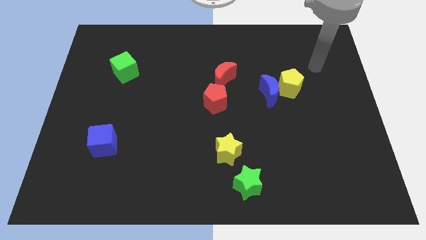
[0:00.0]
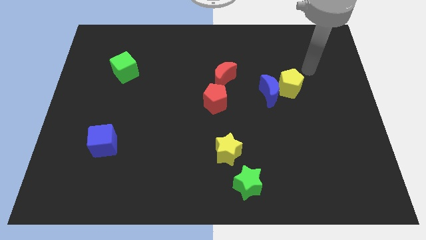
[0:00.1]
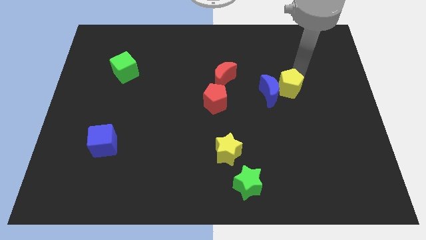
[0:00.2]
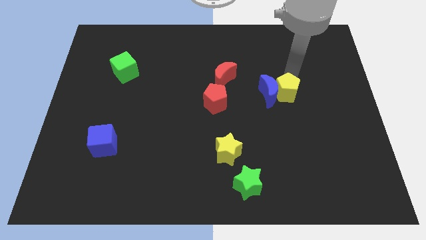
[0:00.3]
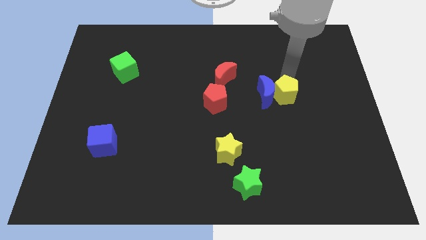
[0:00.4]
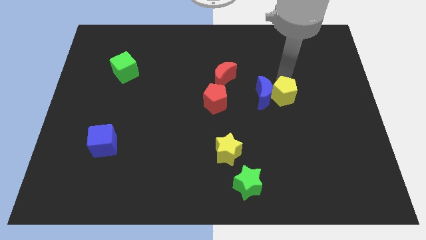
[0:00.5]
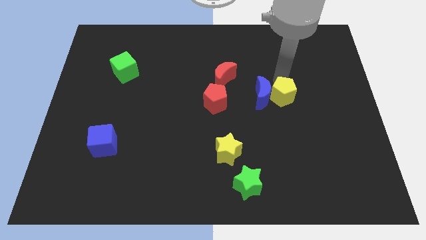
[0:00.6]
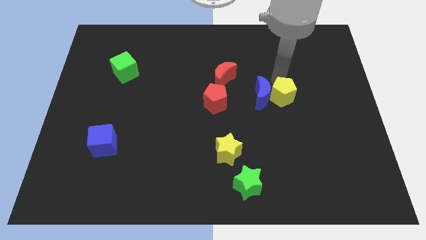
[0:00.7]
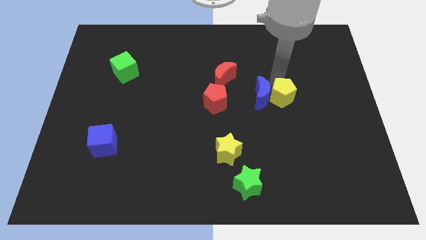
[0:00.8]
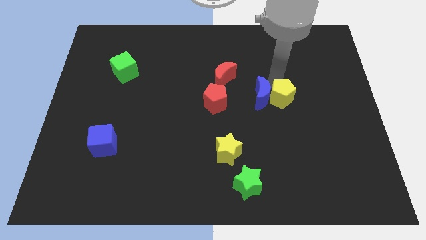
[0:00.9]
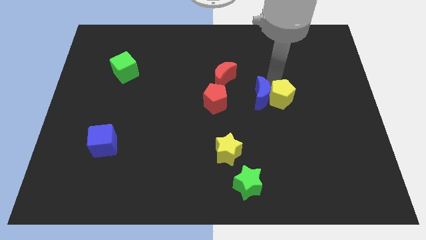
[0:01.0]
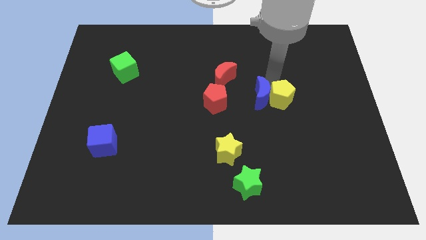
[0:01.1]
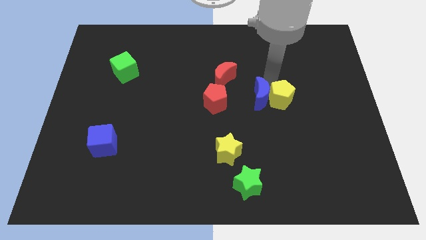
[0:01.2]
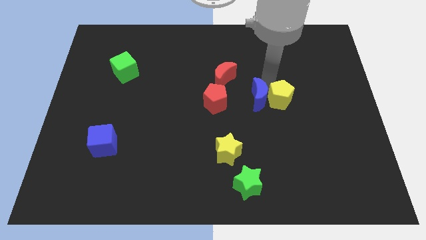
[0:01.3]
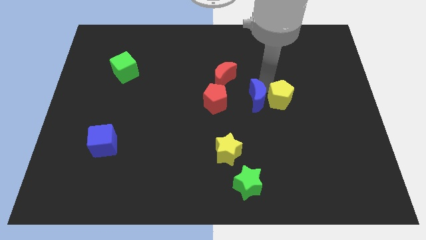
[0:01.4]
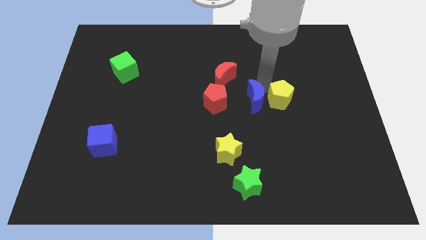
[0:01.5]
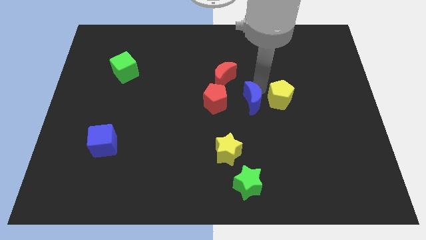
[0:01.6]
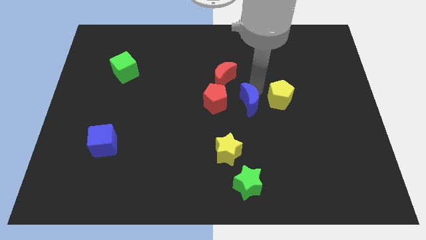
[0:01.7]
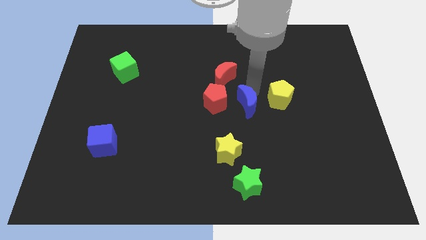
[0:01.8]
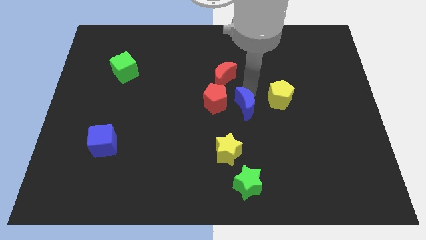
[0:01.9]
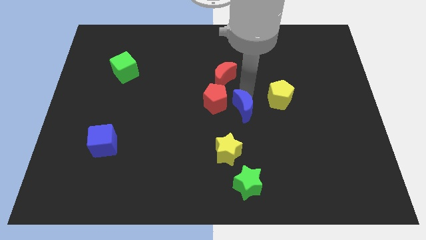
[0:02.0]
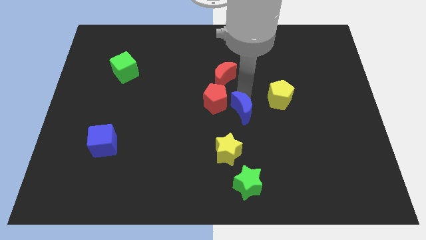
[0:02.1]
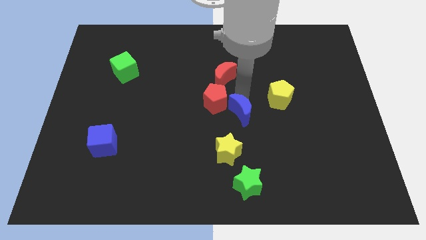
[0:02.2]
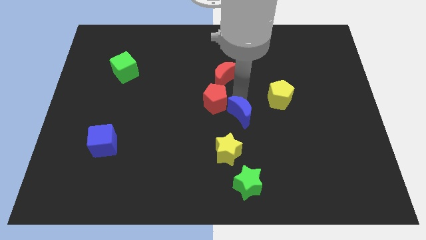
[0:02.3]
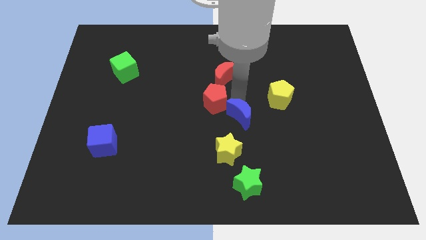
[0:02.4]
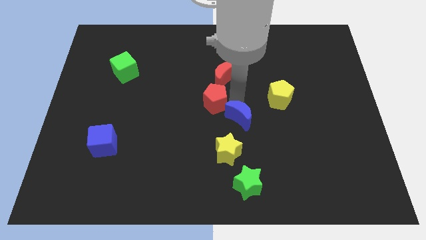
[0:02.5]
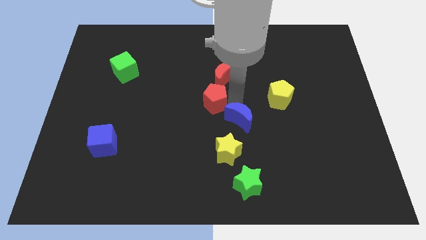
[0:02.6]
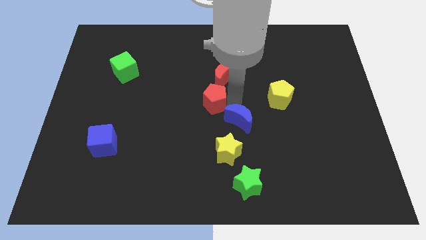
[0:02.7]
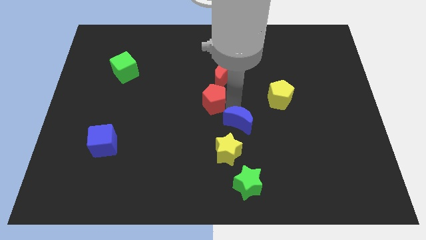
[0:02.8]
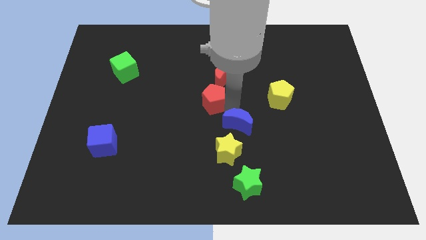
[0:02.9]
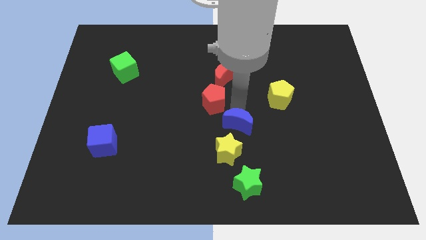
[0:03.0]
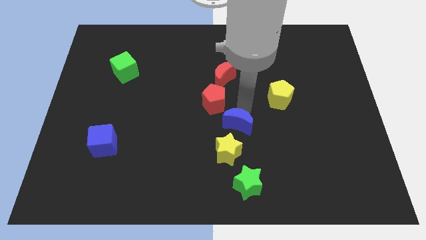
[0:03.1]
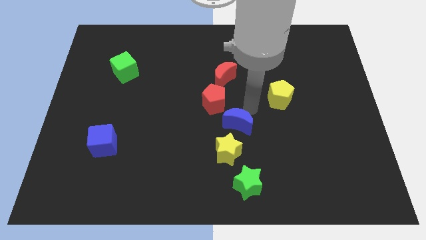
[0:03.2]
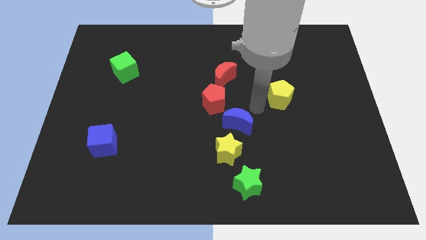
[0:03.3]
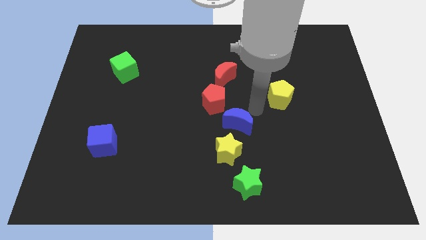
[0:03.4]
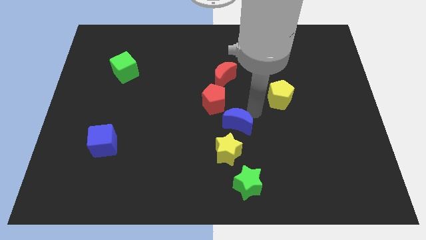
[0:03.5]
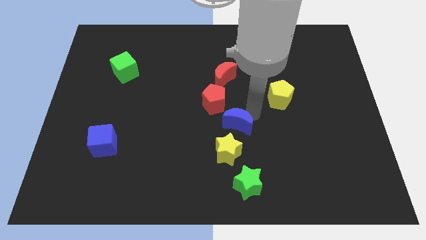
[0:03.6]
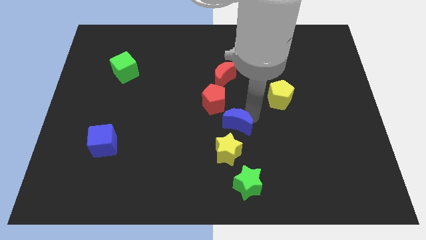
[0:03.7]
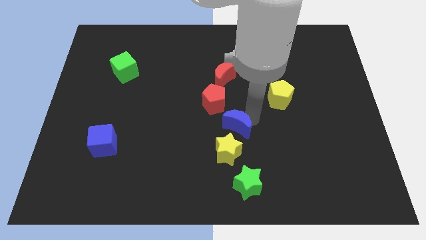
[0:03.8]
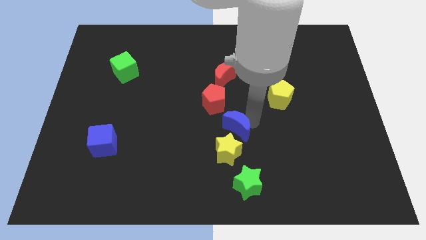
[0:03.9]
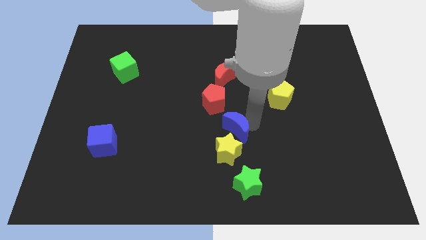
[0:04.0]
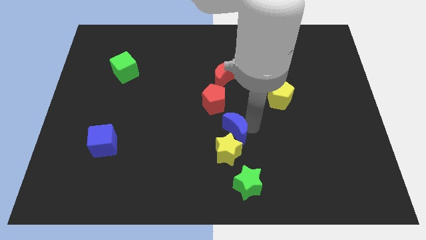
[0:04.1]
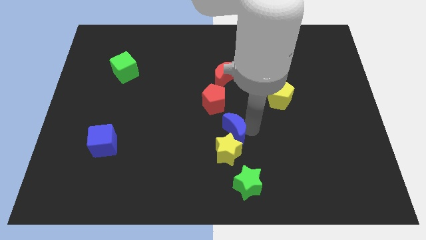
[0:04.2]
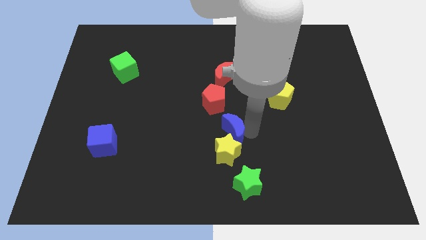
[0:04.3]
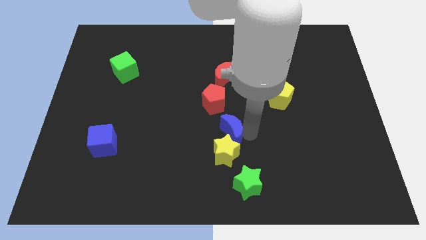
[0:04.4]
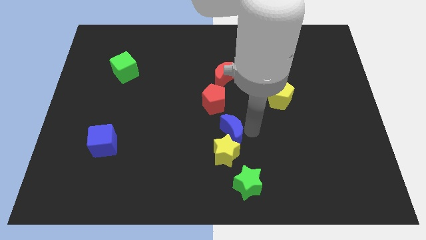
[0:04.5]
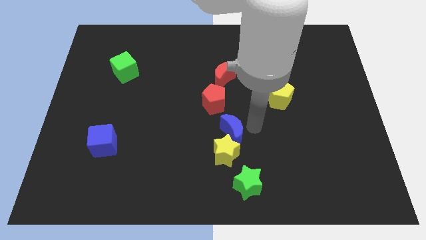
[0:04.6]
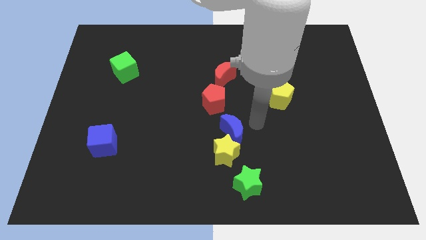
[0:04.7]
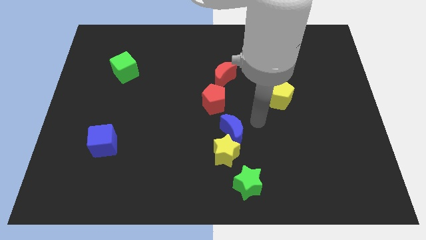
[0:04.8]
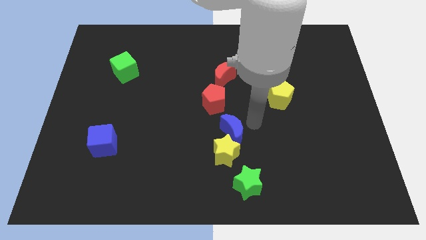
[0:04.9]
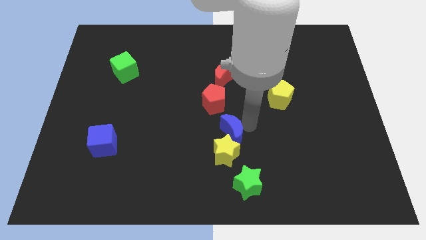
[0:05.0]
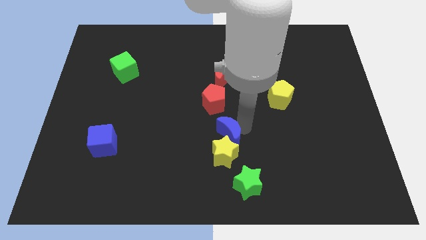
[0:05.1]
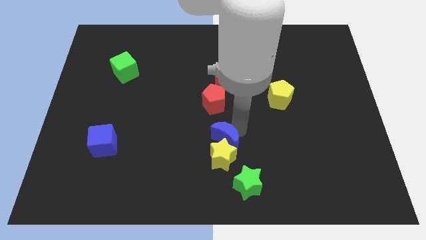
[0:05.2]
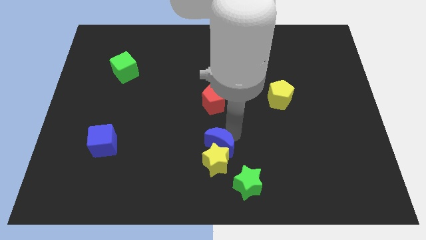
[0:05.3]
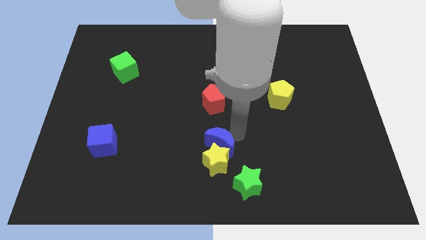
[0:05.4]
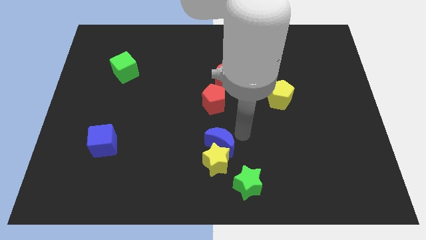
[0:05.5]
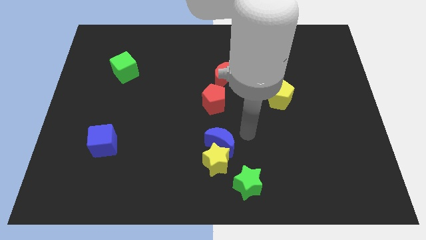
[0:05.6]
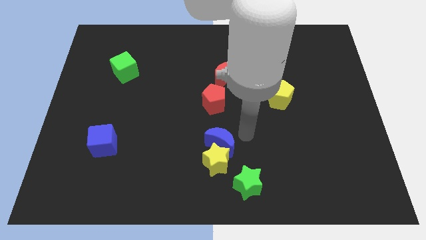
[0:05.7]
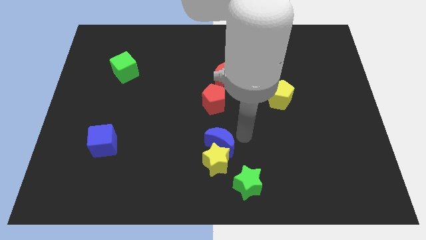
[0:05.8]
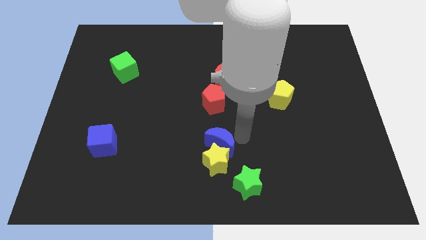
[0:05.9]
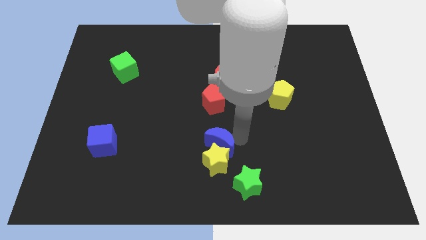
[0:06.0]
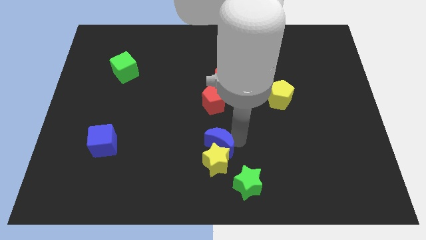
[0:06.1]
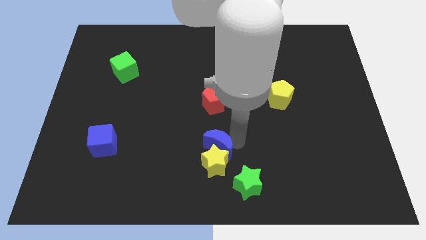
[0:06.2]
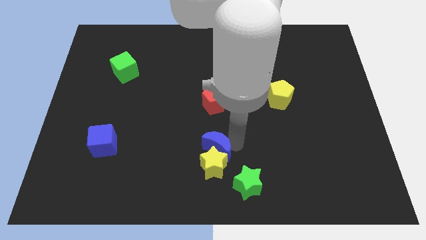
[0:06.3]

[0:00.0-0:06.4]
slide the blue moon downwards and left diagonally

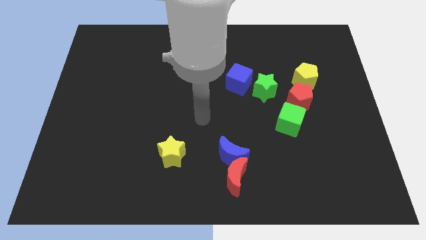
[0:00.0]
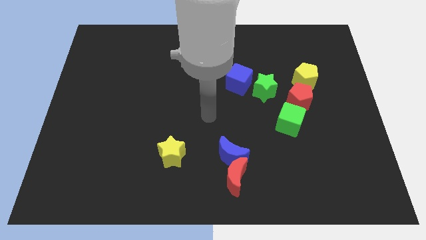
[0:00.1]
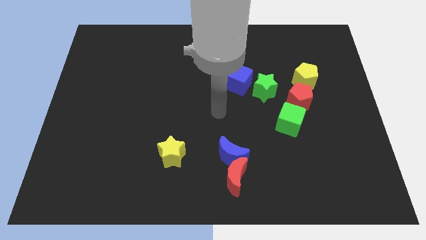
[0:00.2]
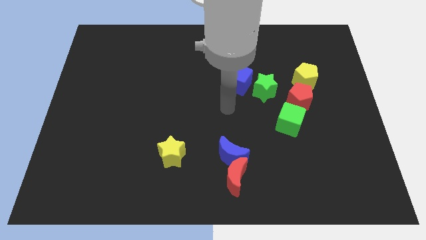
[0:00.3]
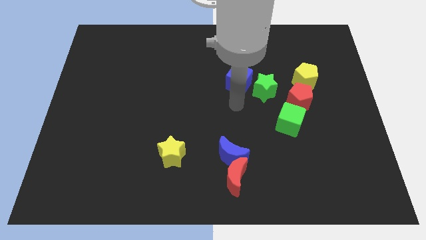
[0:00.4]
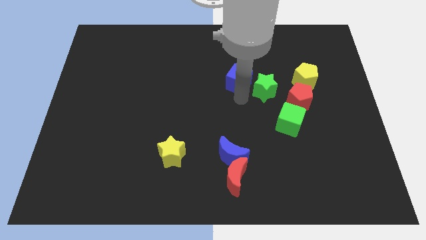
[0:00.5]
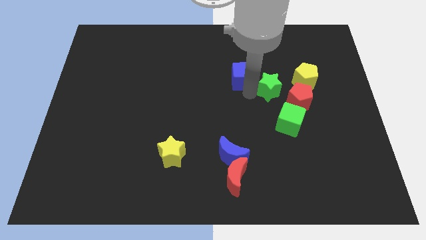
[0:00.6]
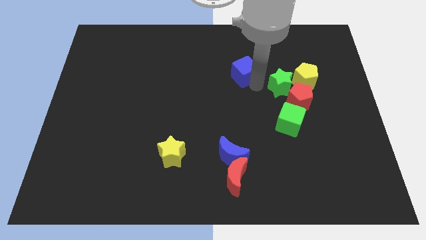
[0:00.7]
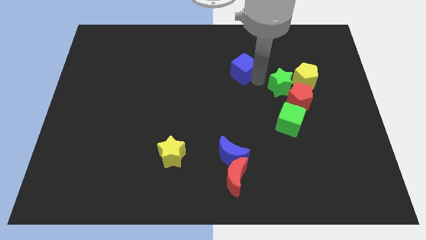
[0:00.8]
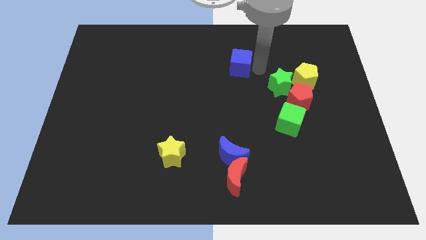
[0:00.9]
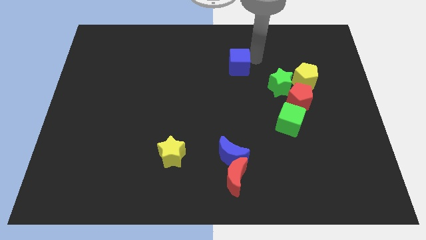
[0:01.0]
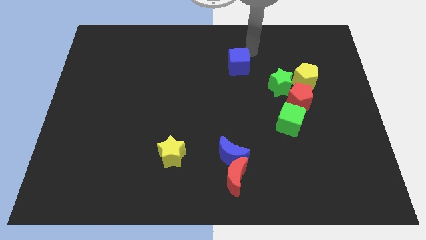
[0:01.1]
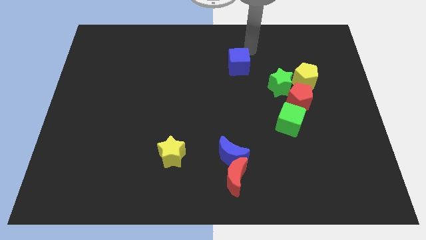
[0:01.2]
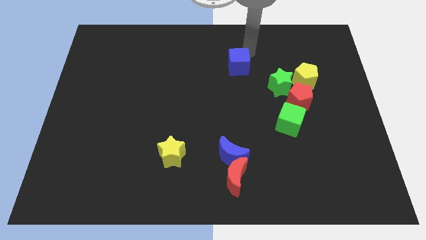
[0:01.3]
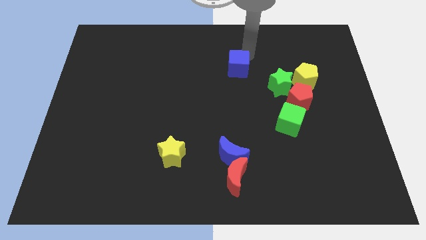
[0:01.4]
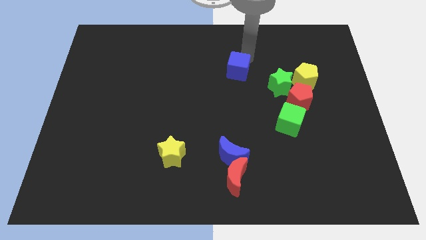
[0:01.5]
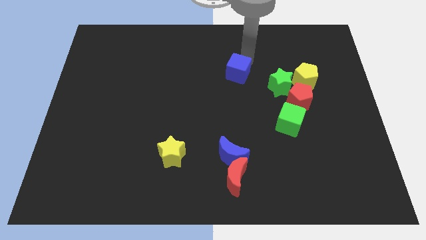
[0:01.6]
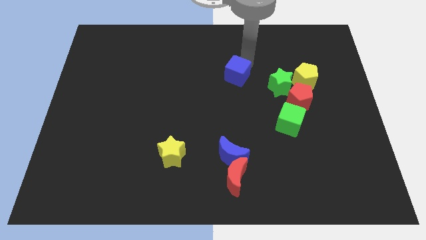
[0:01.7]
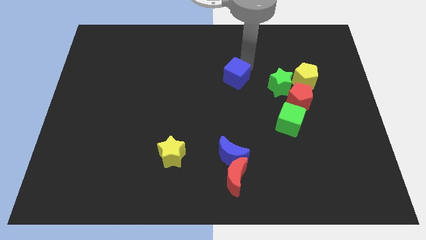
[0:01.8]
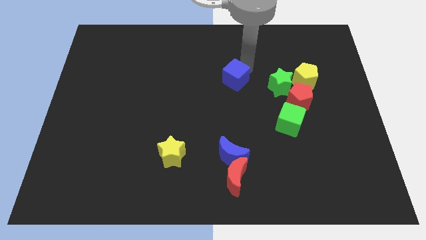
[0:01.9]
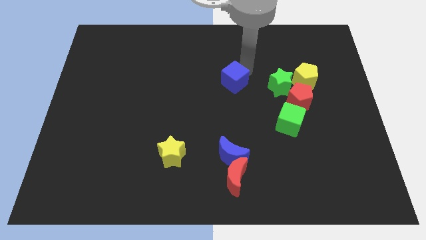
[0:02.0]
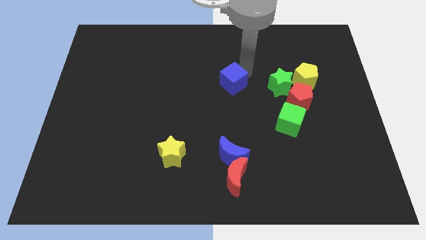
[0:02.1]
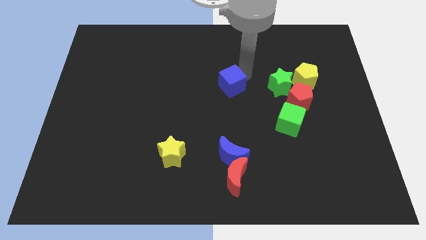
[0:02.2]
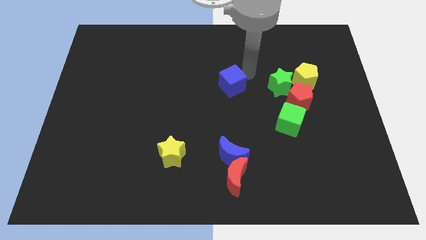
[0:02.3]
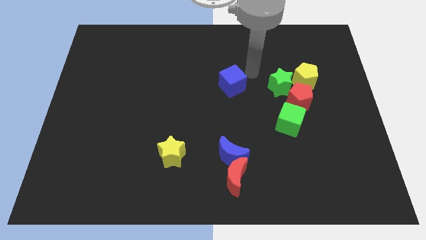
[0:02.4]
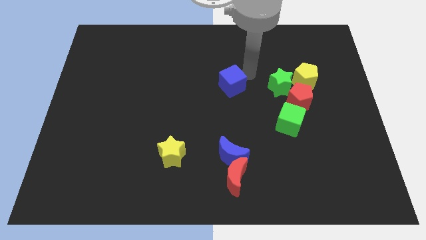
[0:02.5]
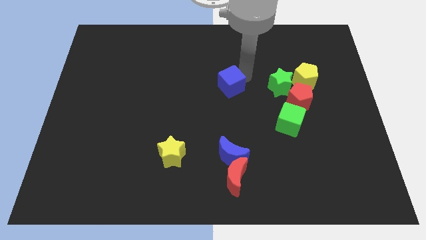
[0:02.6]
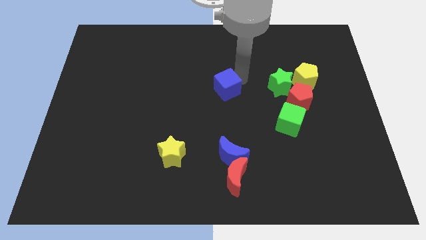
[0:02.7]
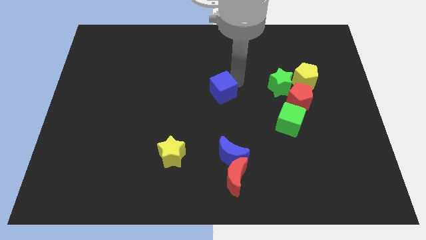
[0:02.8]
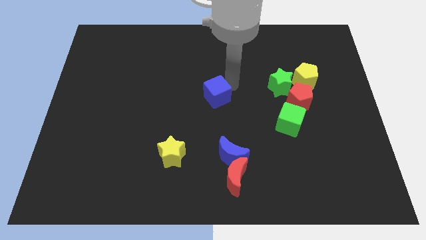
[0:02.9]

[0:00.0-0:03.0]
push the blue cube a bit downwards and left
